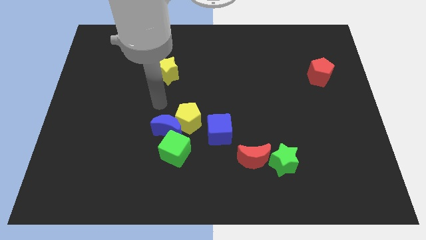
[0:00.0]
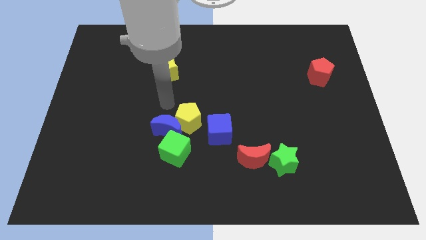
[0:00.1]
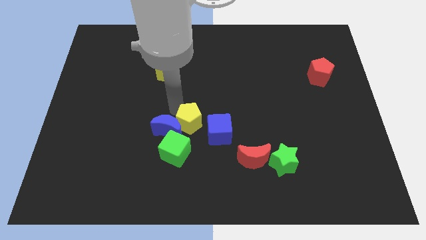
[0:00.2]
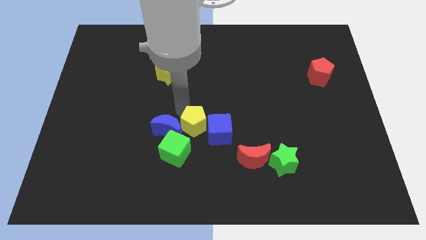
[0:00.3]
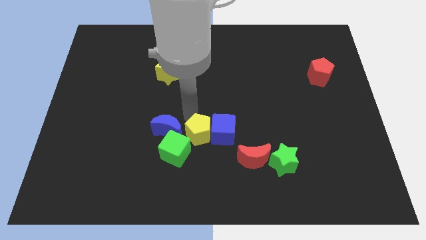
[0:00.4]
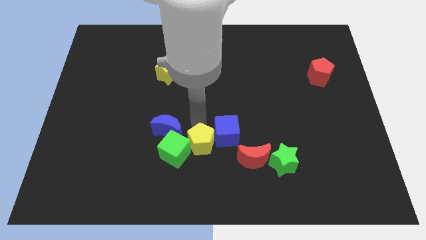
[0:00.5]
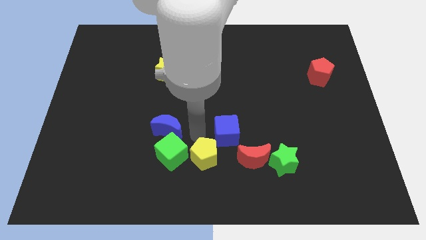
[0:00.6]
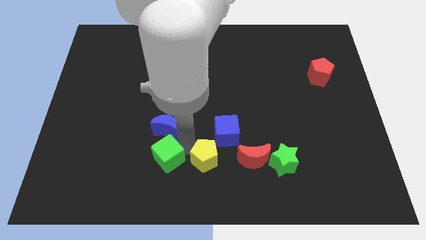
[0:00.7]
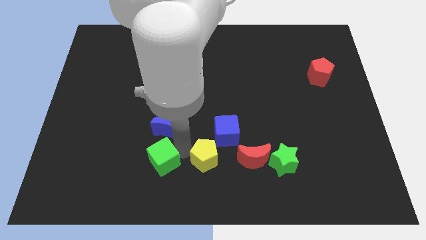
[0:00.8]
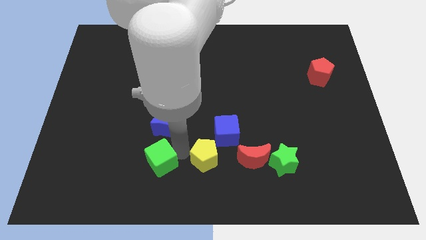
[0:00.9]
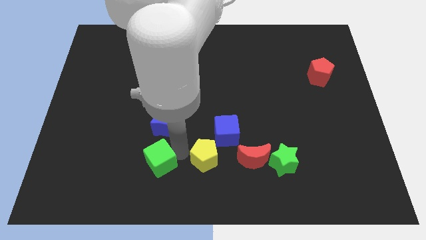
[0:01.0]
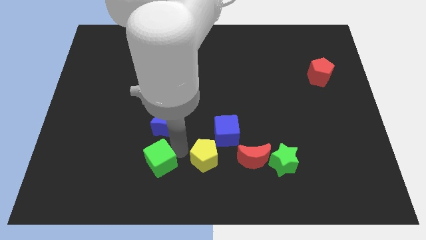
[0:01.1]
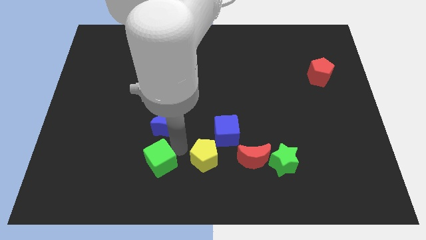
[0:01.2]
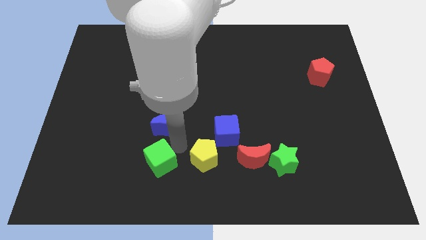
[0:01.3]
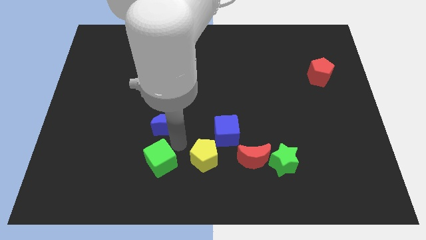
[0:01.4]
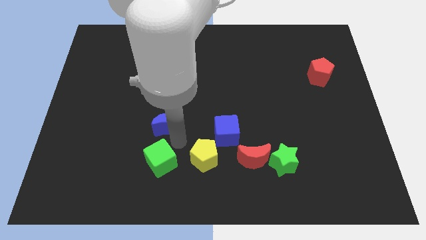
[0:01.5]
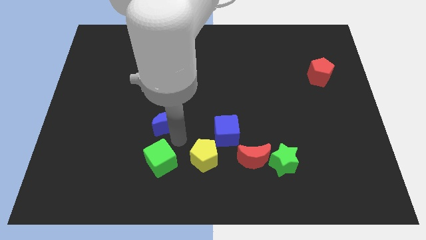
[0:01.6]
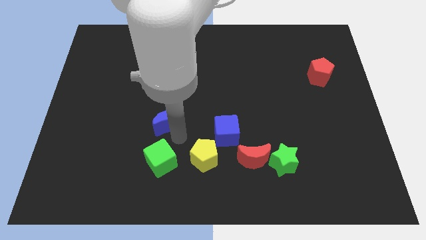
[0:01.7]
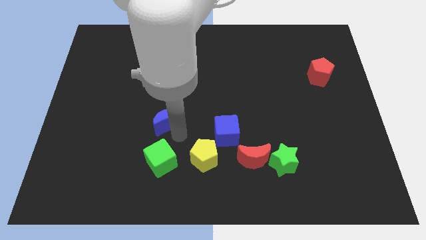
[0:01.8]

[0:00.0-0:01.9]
separate the blue moon from the yellow pentagon and green cube

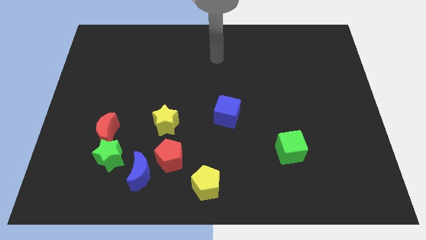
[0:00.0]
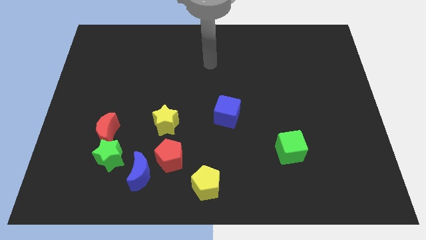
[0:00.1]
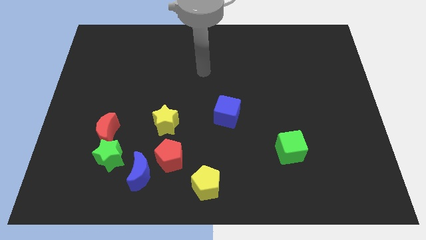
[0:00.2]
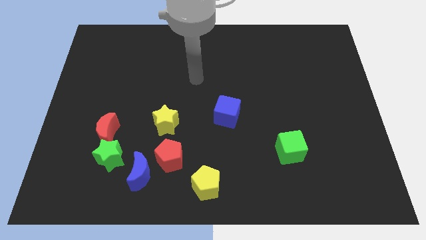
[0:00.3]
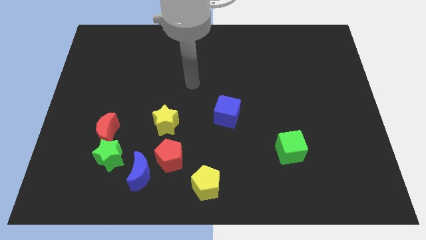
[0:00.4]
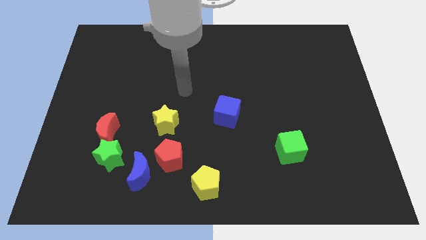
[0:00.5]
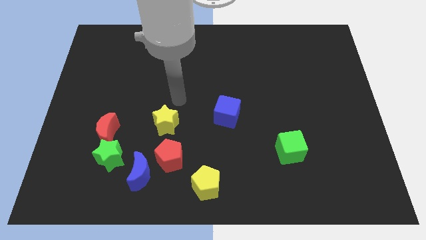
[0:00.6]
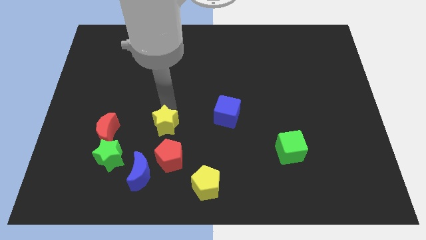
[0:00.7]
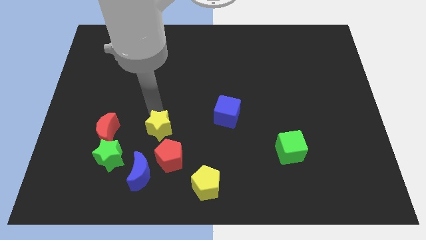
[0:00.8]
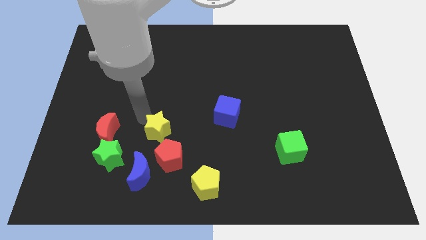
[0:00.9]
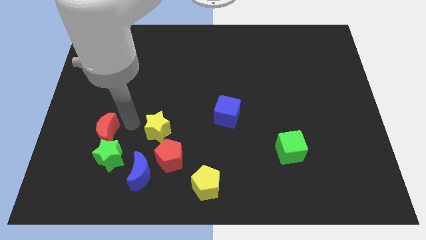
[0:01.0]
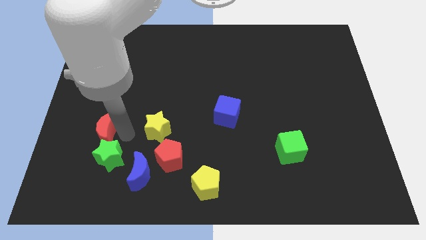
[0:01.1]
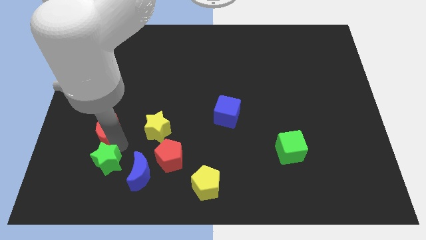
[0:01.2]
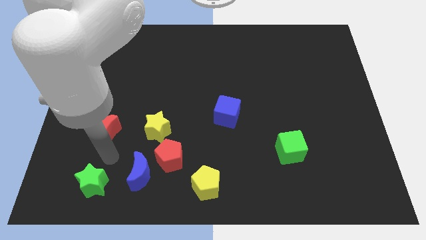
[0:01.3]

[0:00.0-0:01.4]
pull the red moon apart from the green star

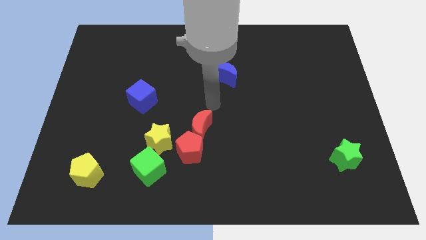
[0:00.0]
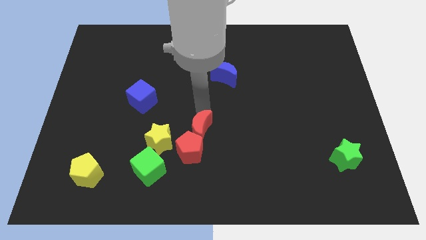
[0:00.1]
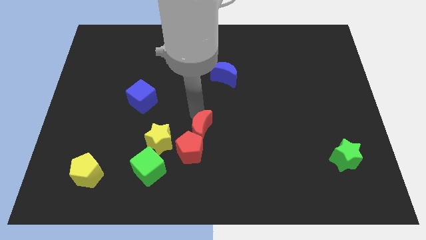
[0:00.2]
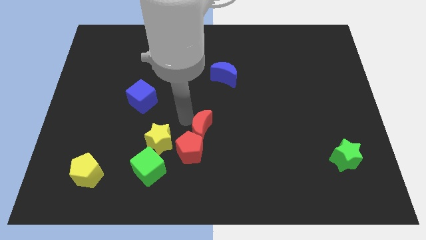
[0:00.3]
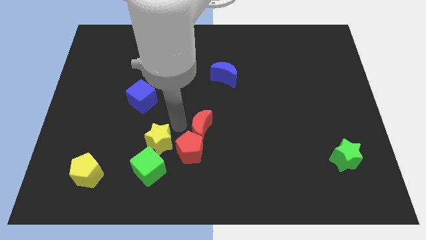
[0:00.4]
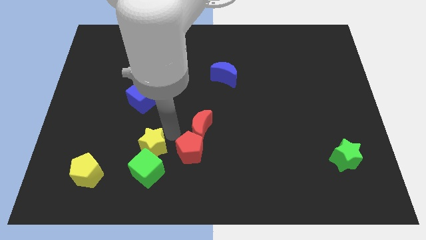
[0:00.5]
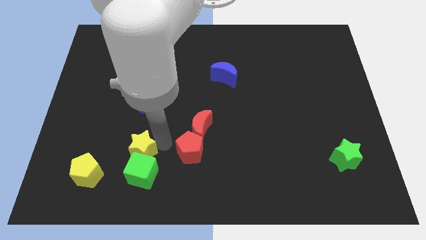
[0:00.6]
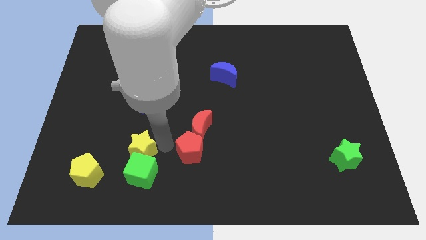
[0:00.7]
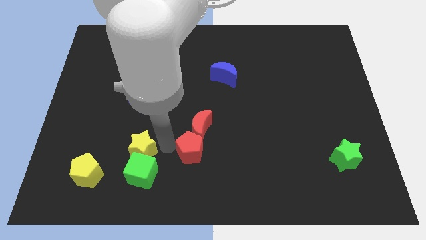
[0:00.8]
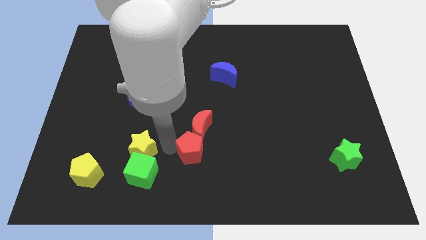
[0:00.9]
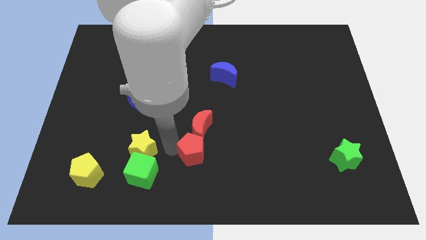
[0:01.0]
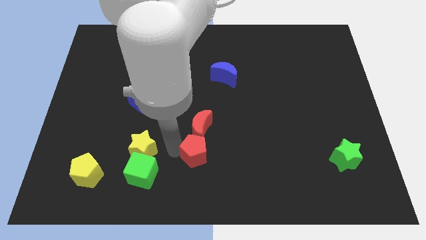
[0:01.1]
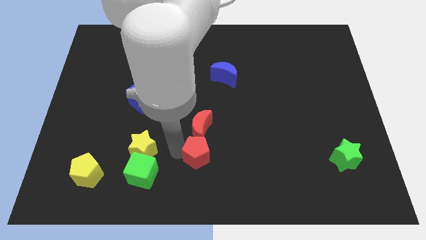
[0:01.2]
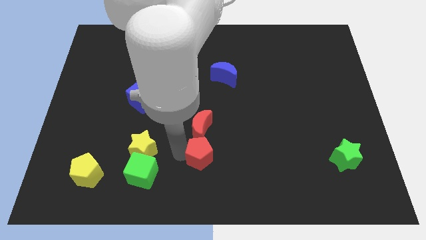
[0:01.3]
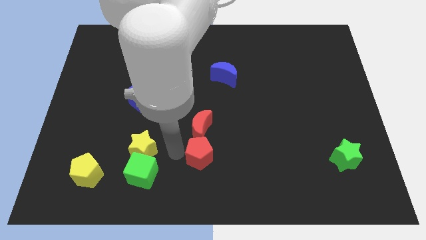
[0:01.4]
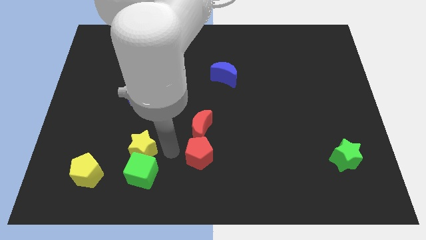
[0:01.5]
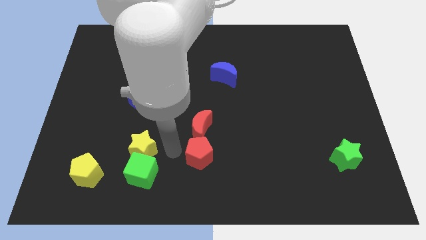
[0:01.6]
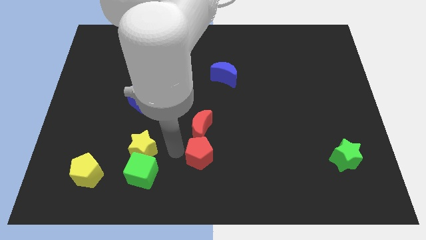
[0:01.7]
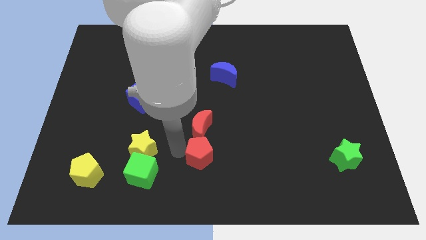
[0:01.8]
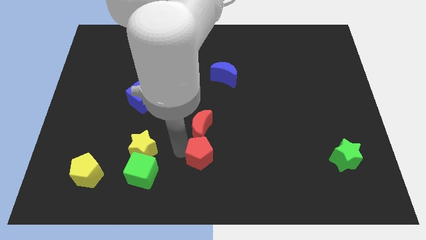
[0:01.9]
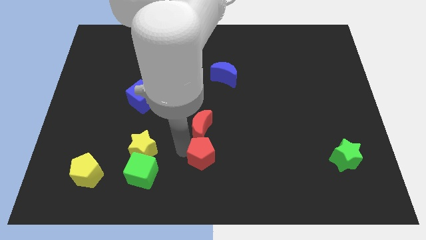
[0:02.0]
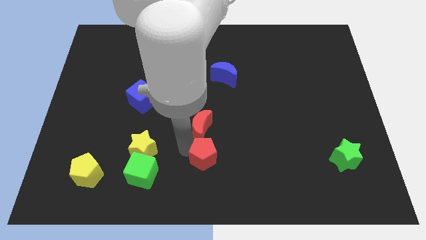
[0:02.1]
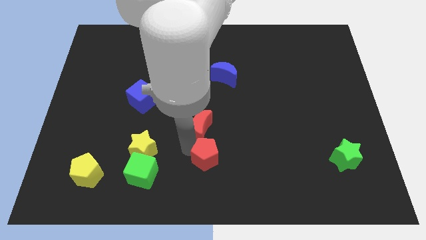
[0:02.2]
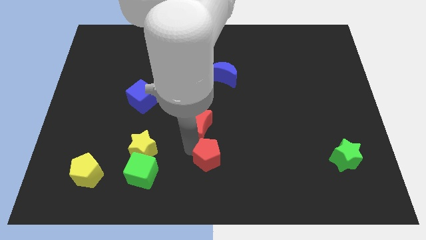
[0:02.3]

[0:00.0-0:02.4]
separate the red pentagon from the clump

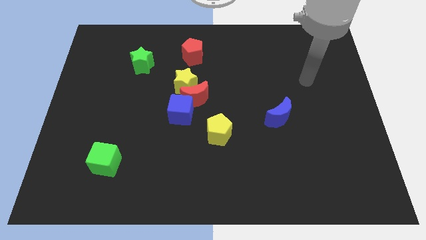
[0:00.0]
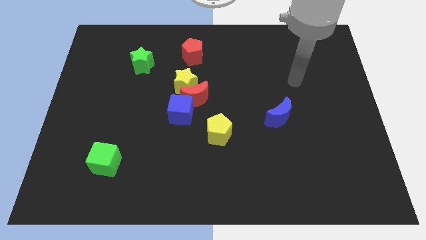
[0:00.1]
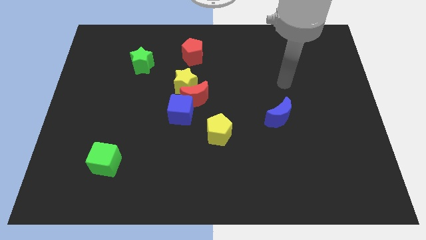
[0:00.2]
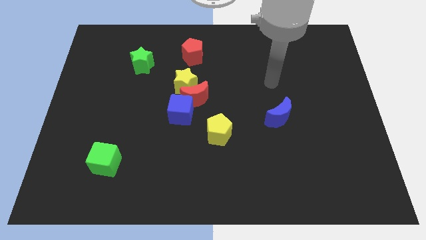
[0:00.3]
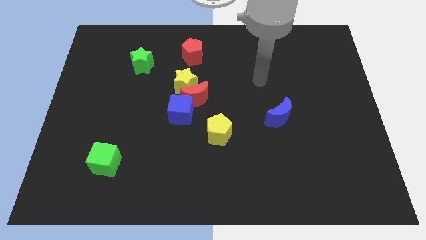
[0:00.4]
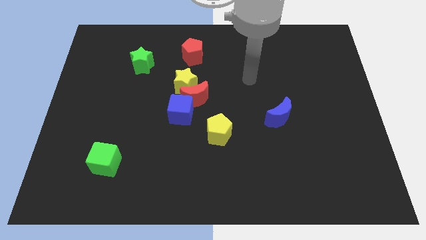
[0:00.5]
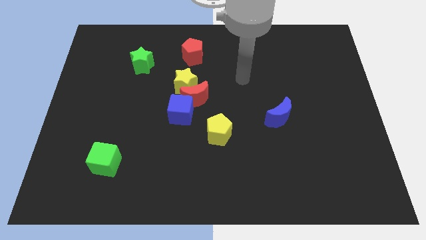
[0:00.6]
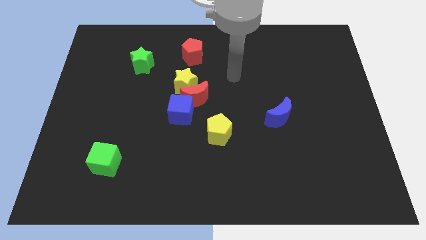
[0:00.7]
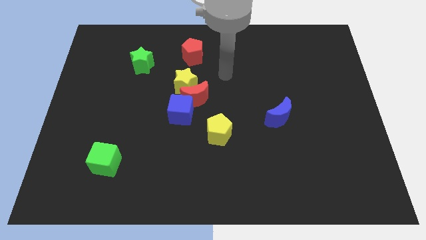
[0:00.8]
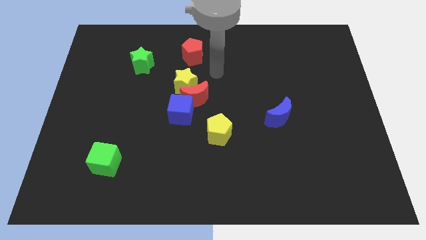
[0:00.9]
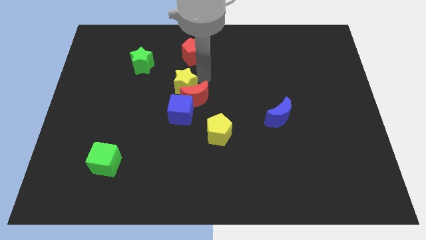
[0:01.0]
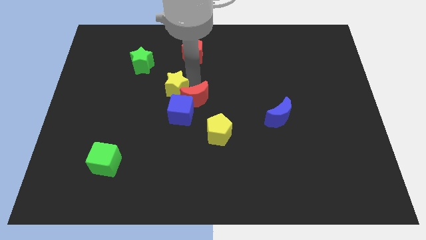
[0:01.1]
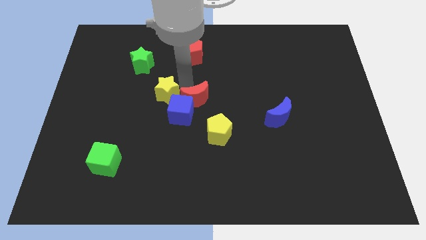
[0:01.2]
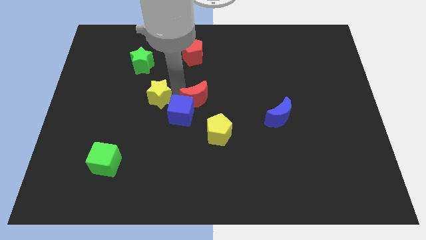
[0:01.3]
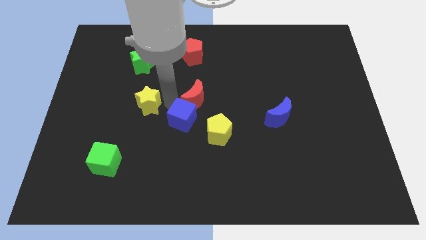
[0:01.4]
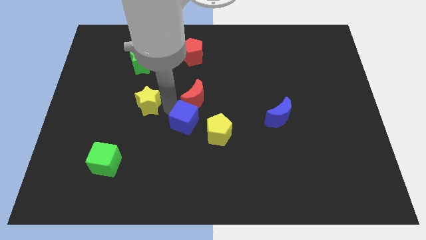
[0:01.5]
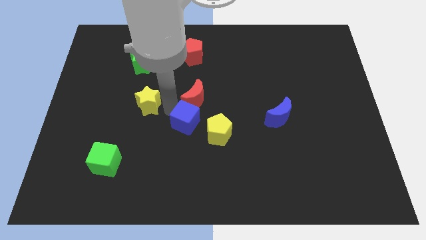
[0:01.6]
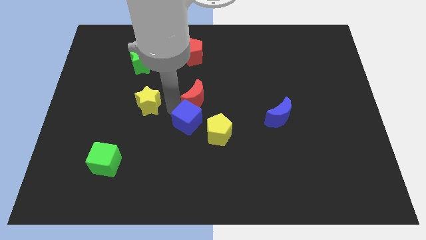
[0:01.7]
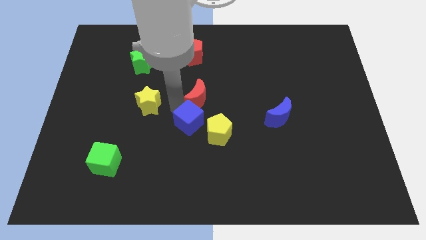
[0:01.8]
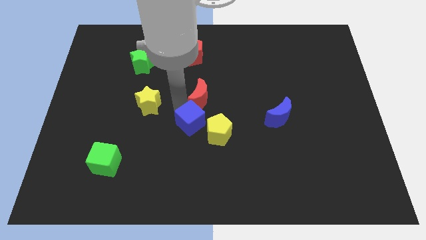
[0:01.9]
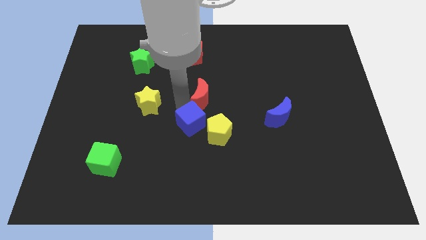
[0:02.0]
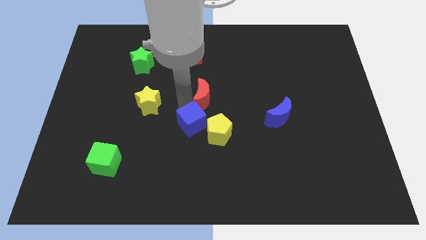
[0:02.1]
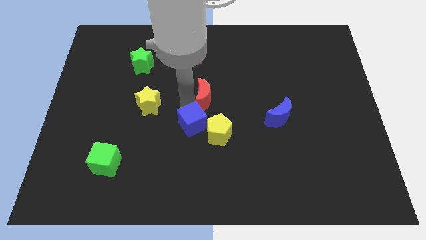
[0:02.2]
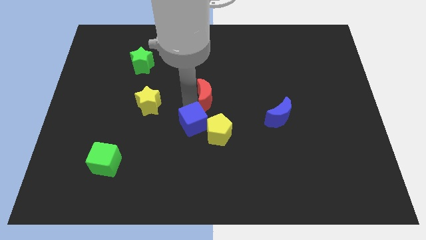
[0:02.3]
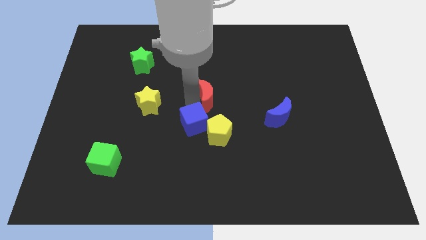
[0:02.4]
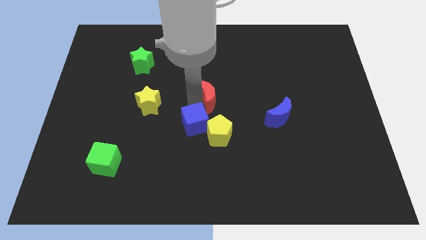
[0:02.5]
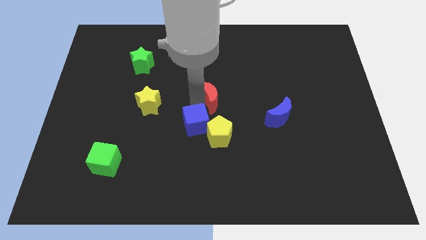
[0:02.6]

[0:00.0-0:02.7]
move the red moon away from the yellow star and blue cube

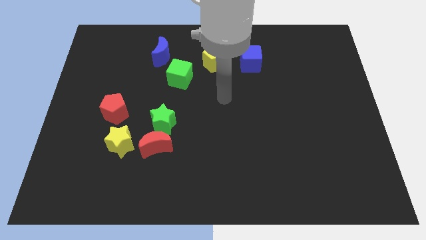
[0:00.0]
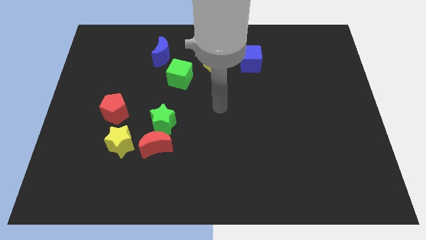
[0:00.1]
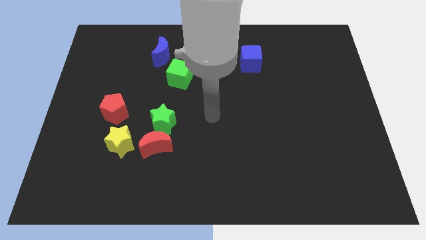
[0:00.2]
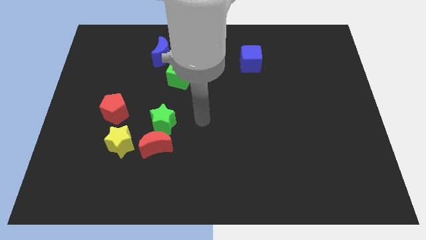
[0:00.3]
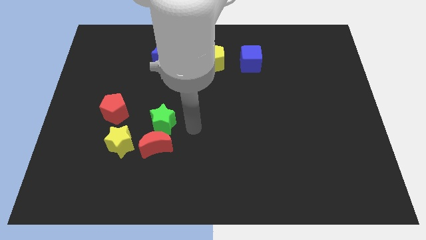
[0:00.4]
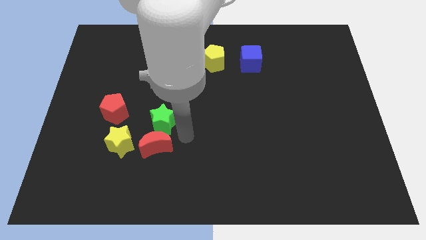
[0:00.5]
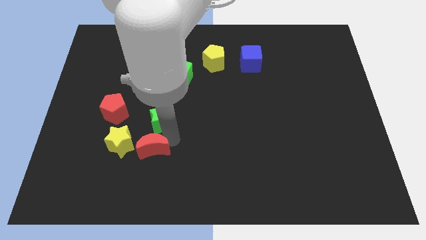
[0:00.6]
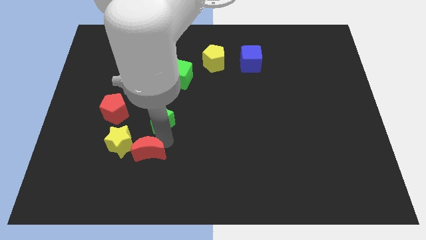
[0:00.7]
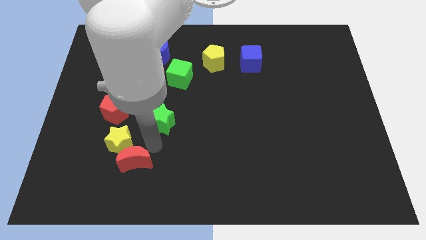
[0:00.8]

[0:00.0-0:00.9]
separate the green star from the red moon
